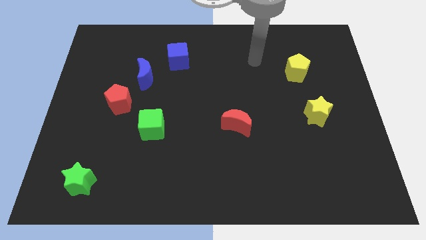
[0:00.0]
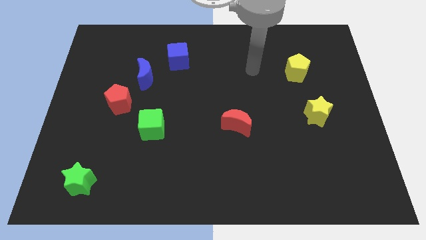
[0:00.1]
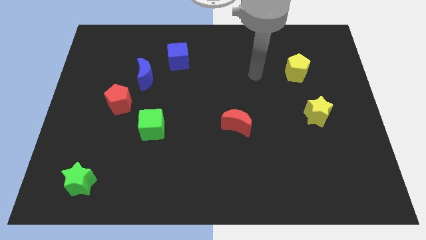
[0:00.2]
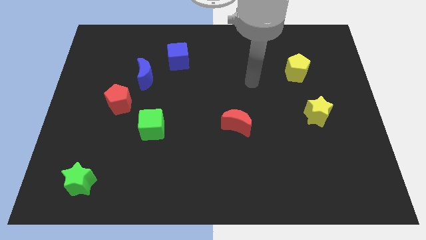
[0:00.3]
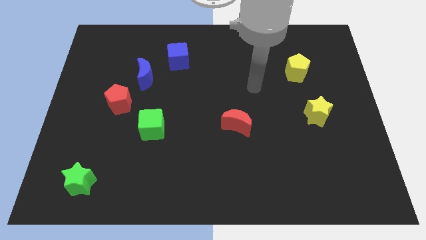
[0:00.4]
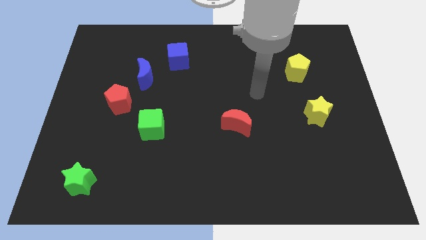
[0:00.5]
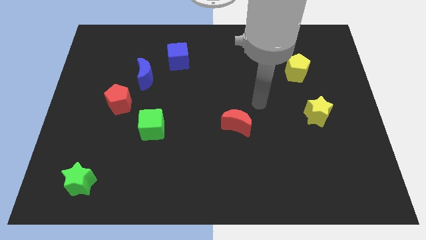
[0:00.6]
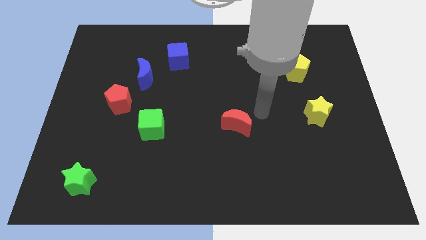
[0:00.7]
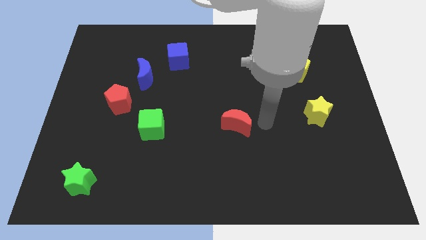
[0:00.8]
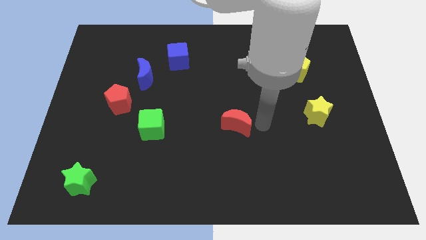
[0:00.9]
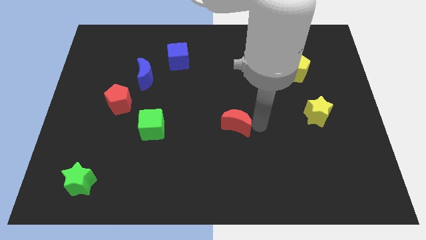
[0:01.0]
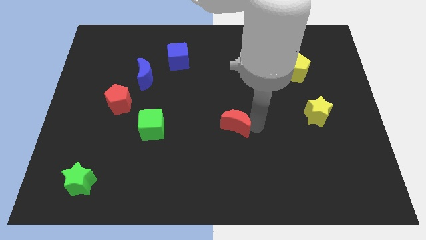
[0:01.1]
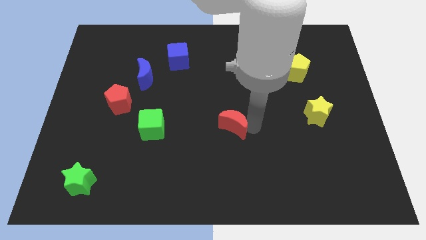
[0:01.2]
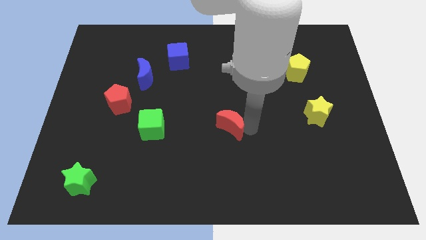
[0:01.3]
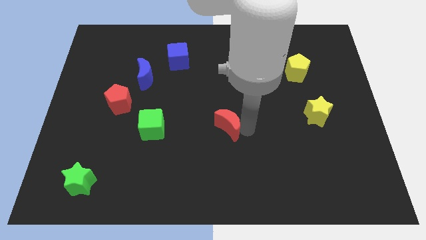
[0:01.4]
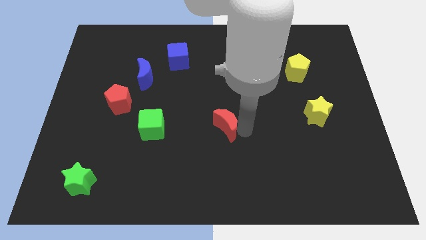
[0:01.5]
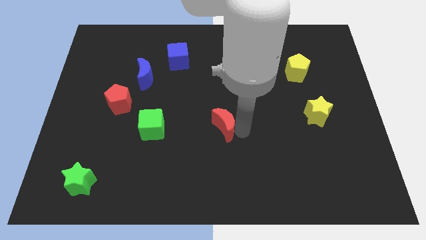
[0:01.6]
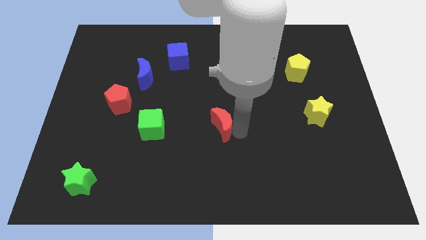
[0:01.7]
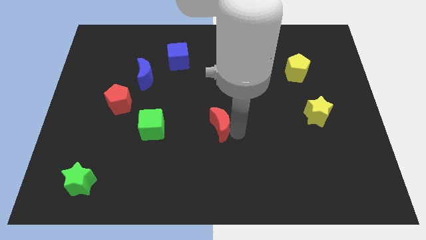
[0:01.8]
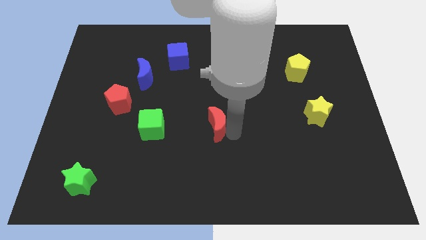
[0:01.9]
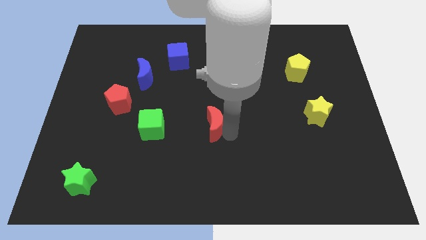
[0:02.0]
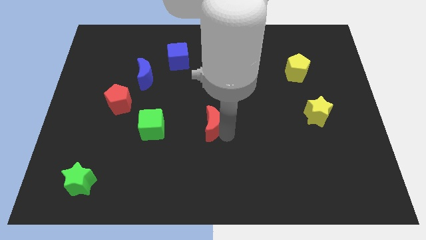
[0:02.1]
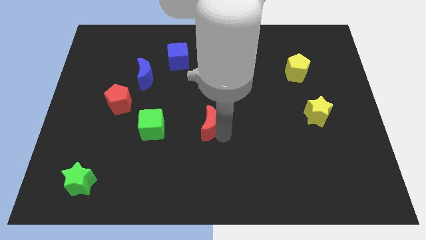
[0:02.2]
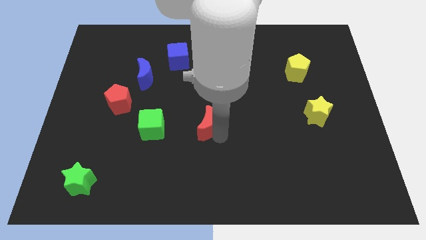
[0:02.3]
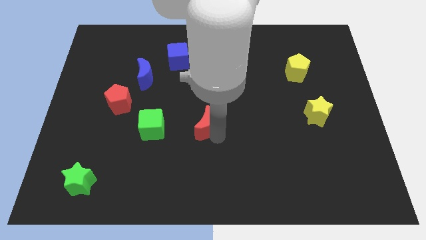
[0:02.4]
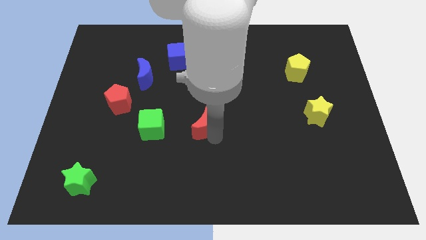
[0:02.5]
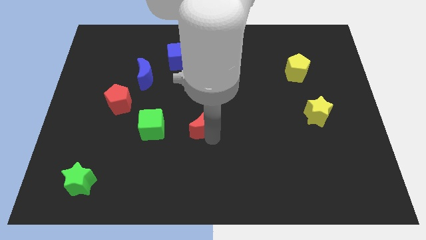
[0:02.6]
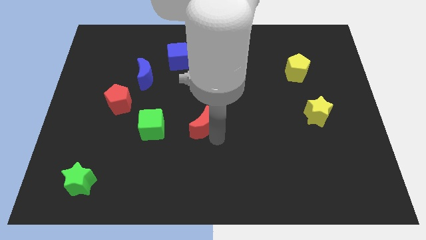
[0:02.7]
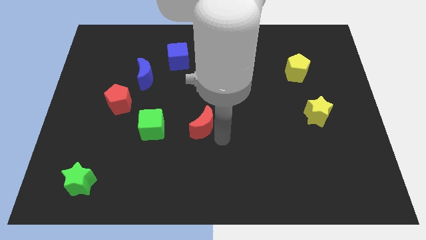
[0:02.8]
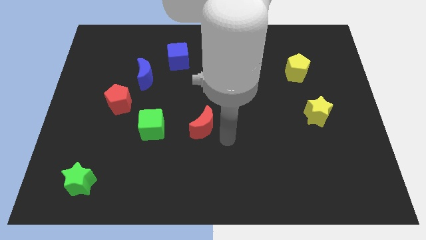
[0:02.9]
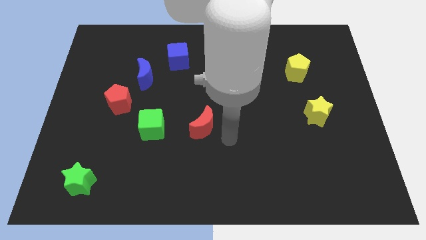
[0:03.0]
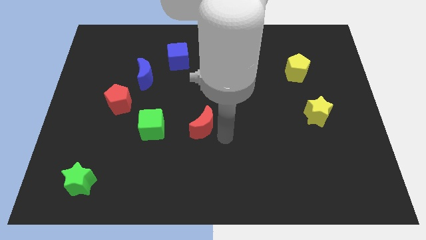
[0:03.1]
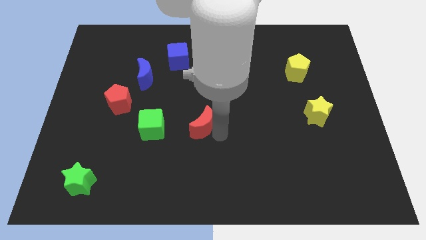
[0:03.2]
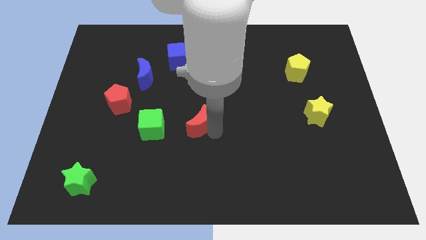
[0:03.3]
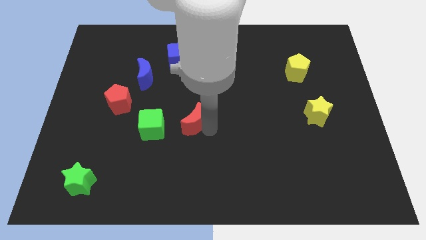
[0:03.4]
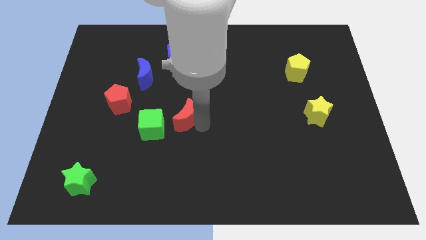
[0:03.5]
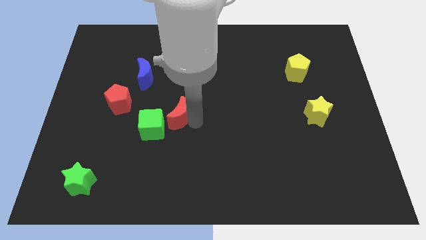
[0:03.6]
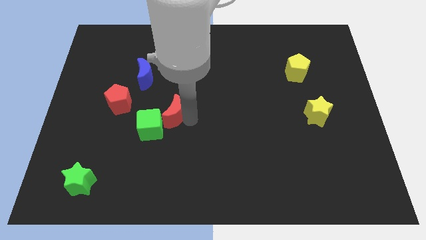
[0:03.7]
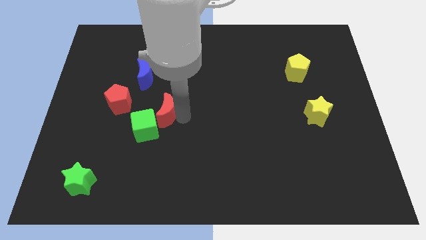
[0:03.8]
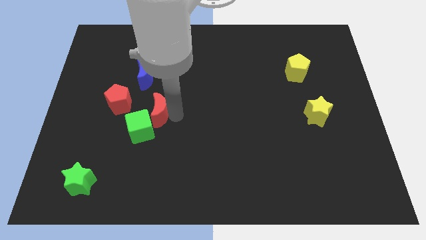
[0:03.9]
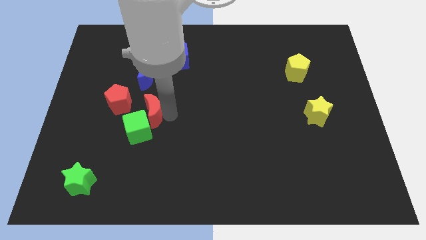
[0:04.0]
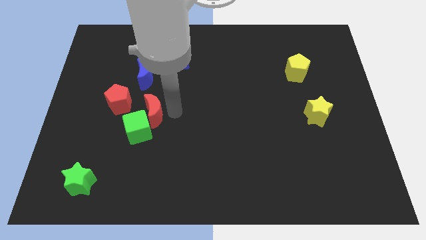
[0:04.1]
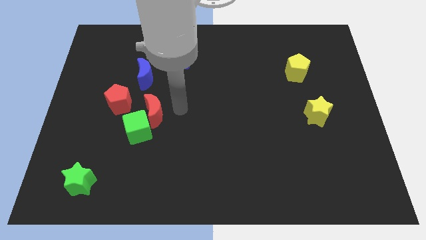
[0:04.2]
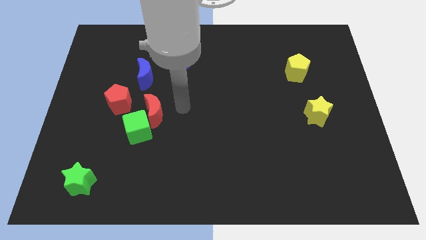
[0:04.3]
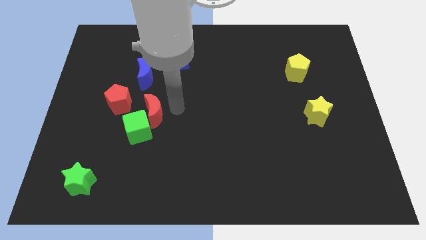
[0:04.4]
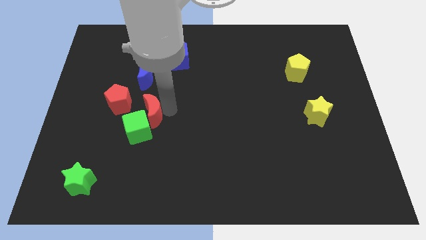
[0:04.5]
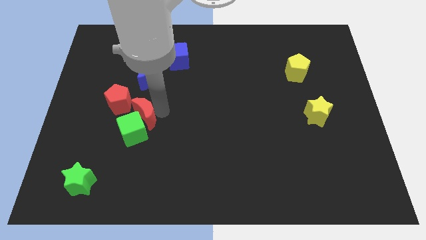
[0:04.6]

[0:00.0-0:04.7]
slide the red moon left

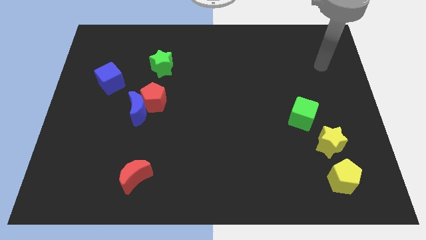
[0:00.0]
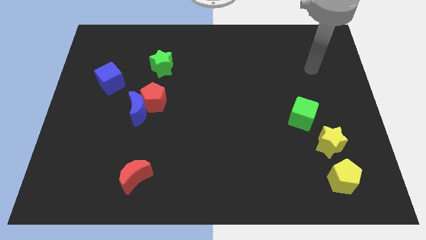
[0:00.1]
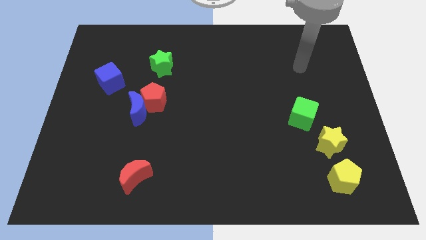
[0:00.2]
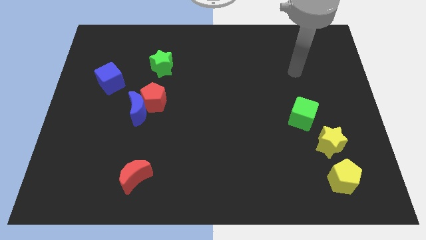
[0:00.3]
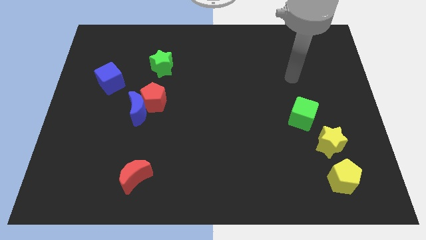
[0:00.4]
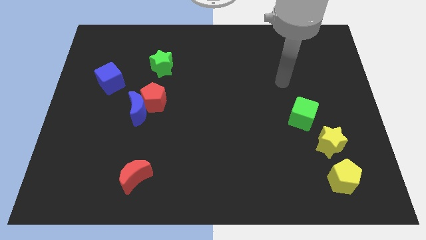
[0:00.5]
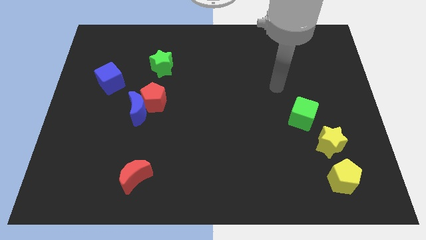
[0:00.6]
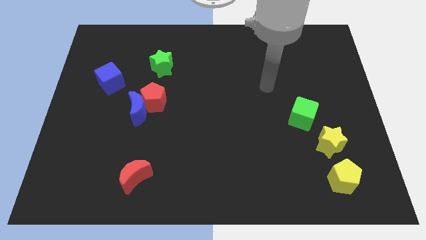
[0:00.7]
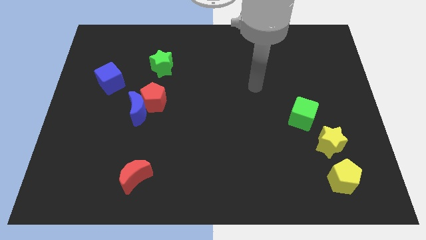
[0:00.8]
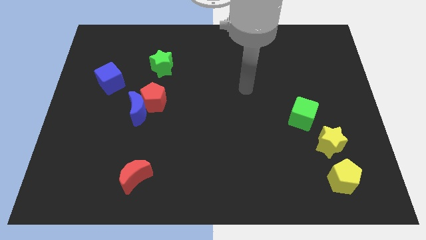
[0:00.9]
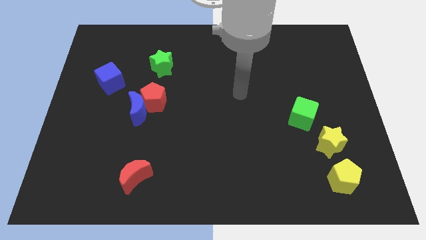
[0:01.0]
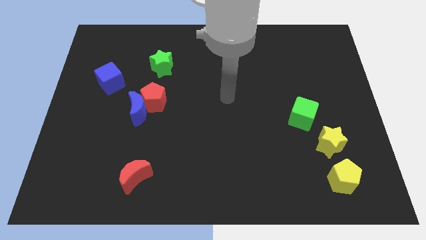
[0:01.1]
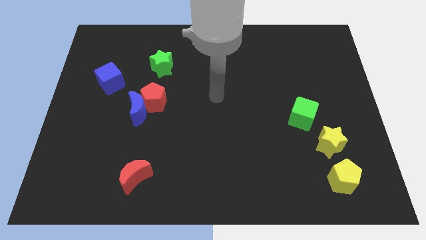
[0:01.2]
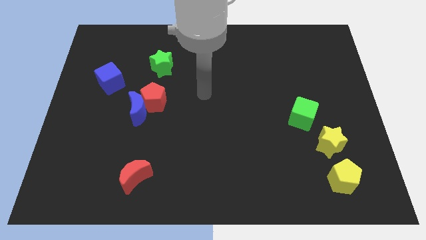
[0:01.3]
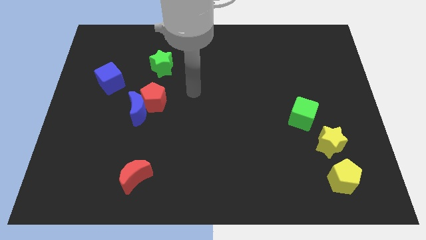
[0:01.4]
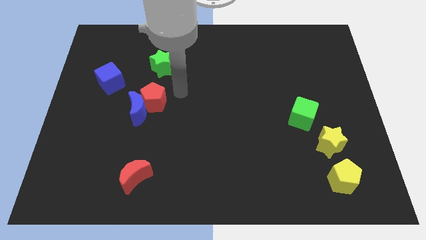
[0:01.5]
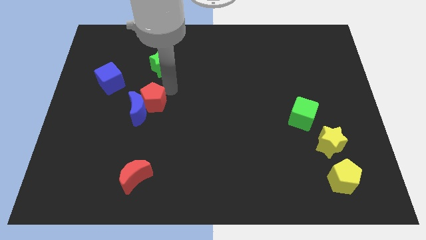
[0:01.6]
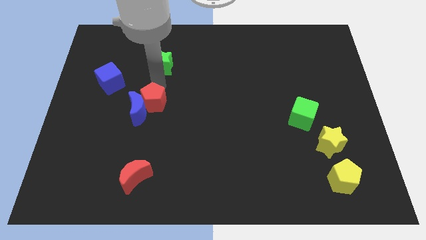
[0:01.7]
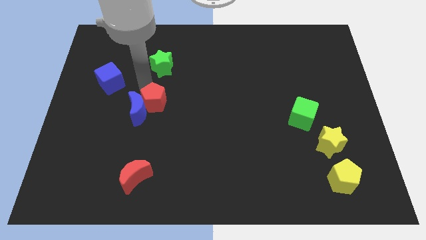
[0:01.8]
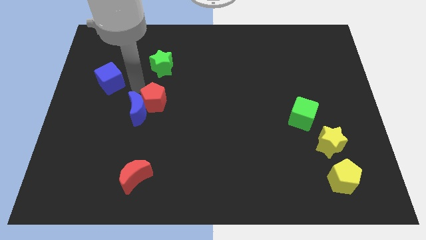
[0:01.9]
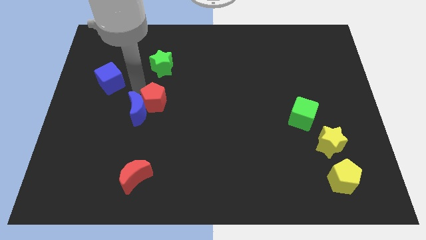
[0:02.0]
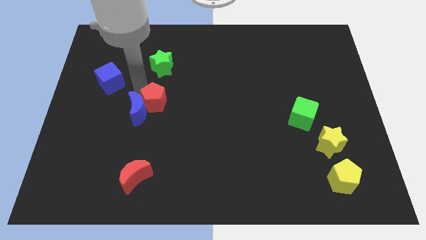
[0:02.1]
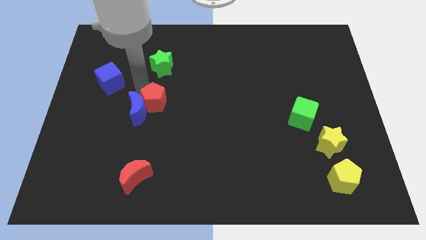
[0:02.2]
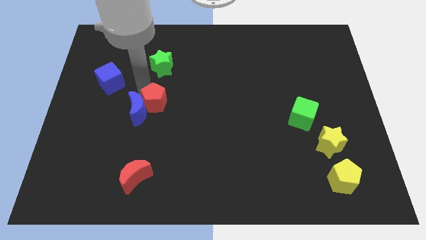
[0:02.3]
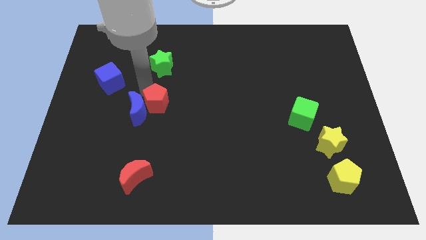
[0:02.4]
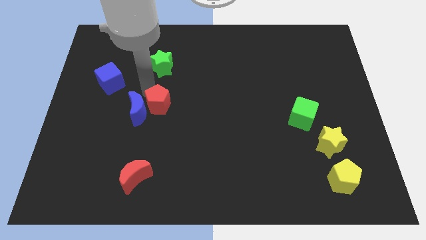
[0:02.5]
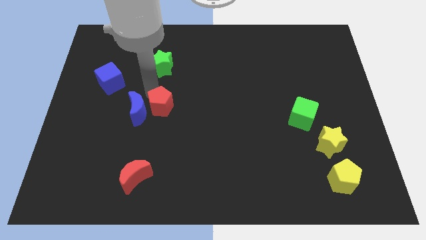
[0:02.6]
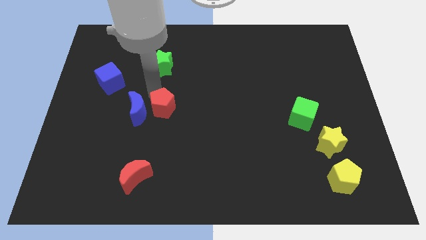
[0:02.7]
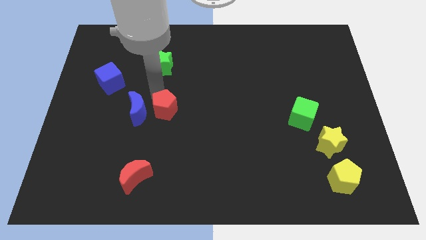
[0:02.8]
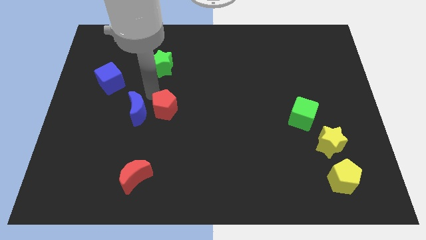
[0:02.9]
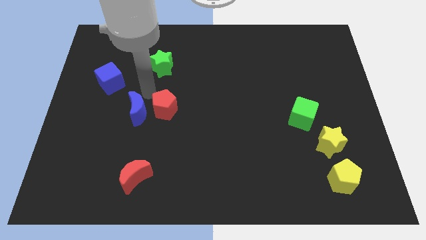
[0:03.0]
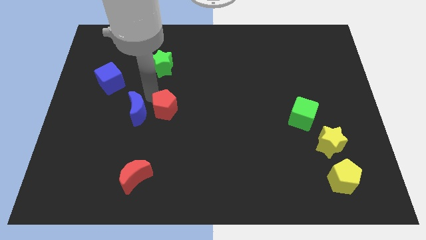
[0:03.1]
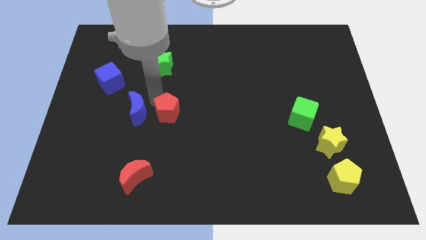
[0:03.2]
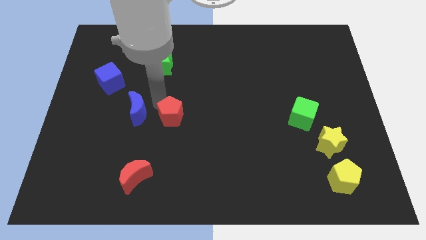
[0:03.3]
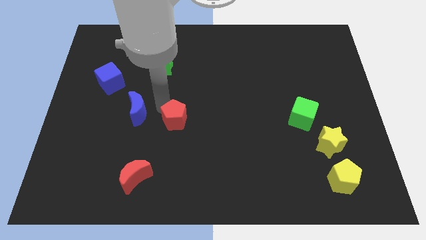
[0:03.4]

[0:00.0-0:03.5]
slide the red pentagon down and to the right diagonally a bit
